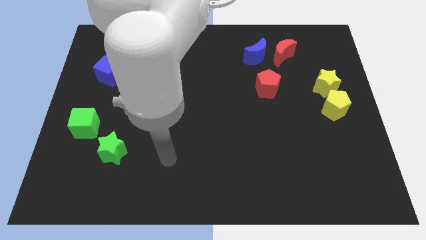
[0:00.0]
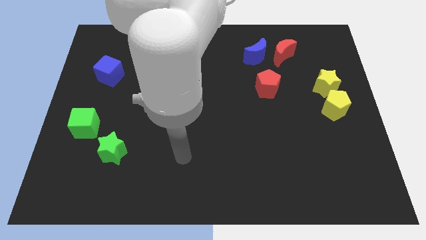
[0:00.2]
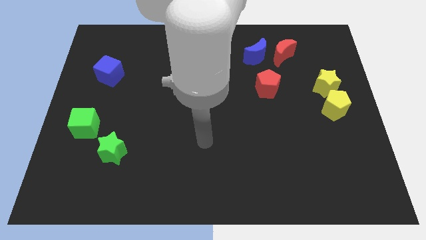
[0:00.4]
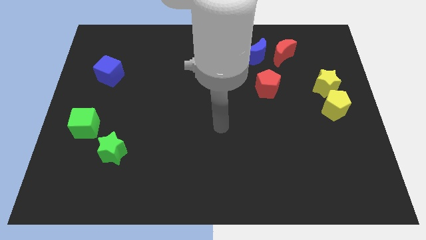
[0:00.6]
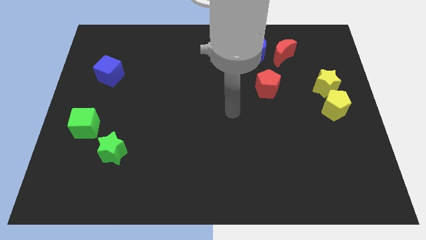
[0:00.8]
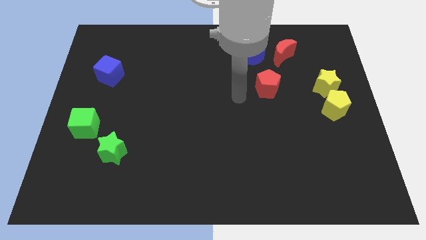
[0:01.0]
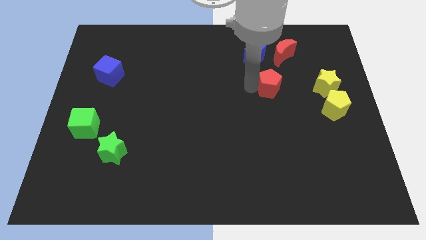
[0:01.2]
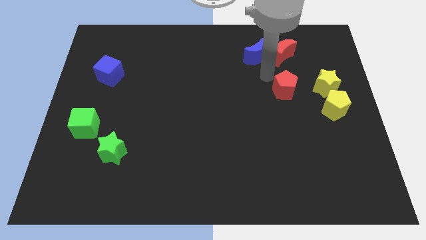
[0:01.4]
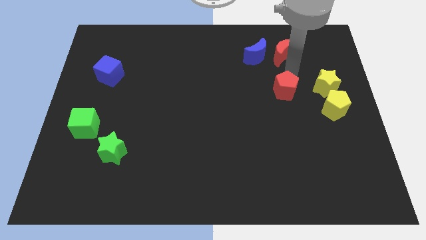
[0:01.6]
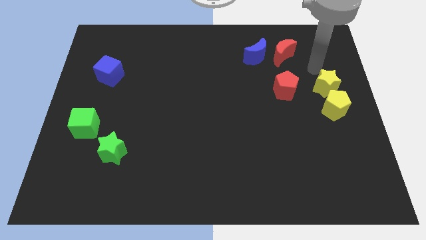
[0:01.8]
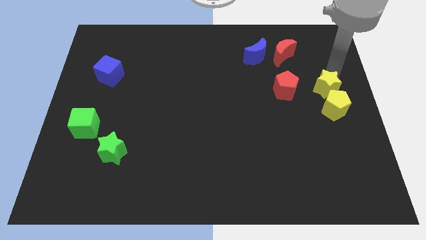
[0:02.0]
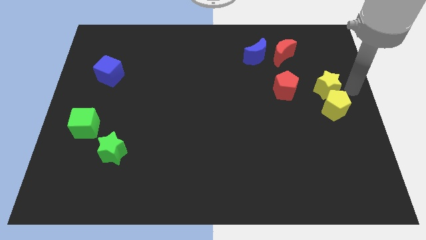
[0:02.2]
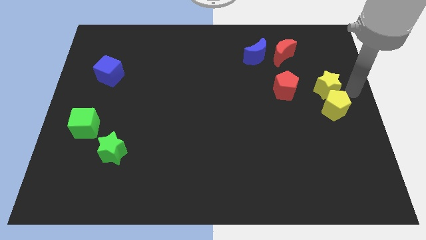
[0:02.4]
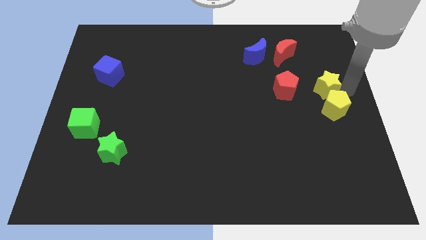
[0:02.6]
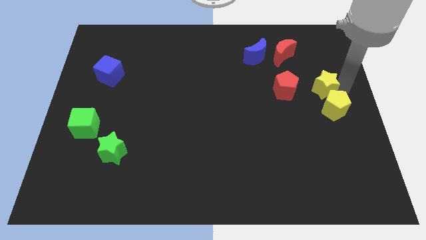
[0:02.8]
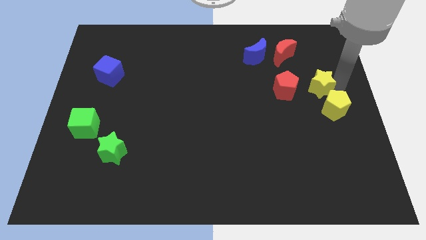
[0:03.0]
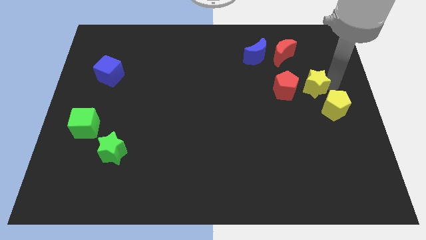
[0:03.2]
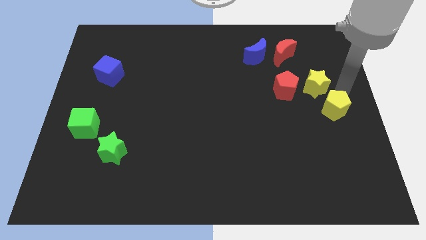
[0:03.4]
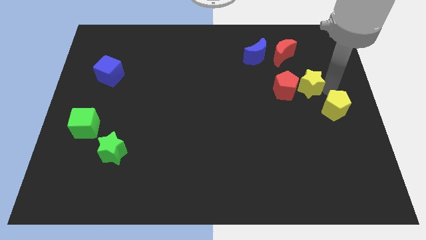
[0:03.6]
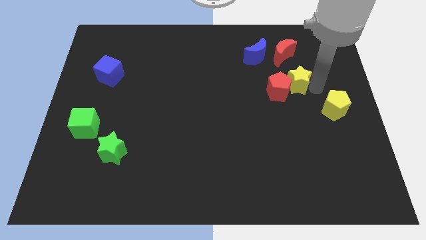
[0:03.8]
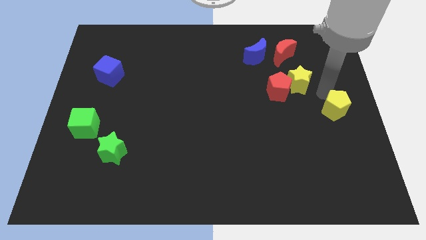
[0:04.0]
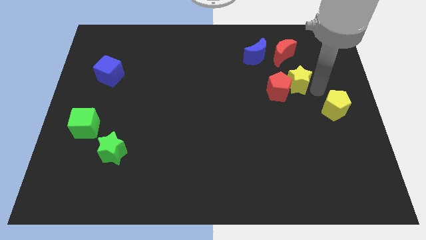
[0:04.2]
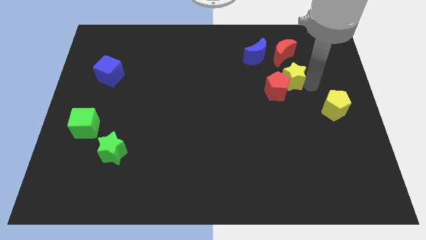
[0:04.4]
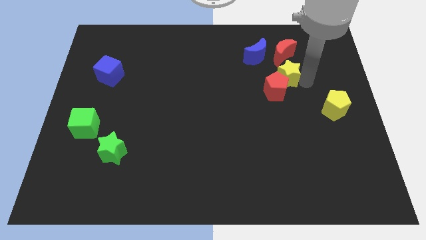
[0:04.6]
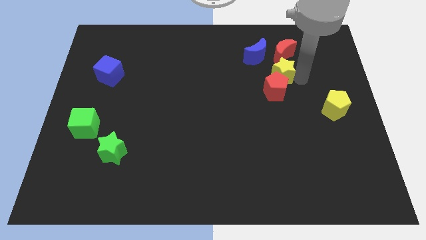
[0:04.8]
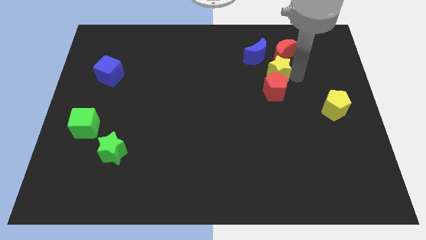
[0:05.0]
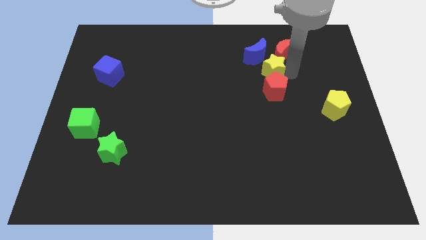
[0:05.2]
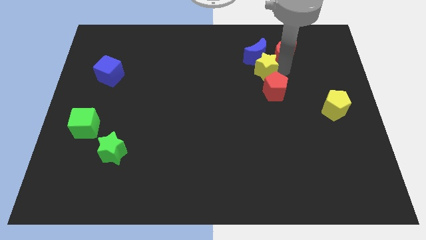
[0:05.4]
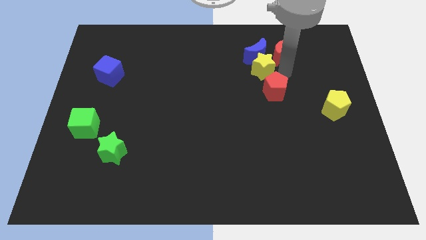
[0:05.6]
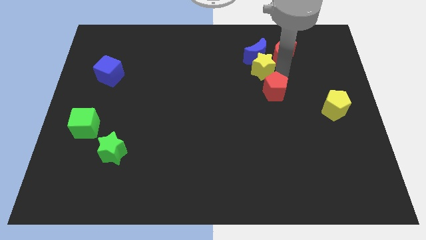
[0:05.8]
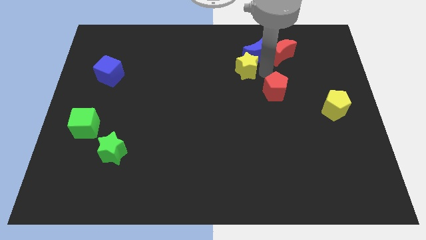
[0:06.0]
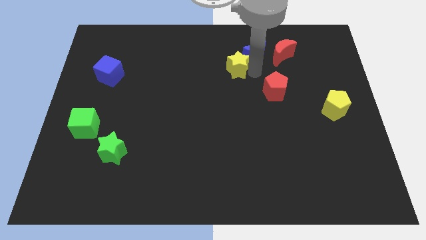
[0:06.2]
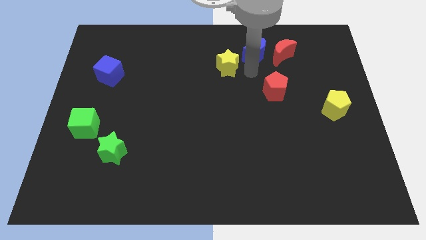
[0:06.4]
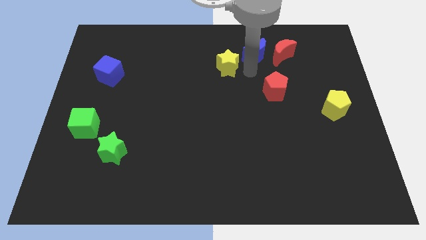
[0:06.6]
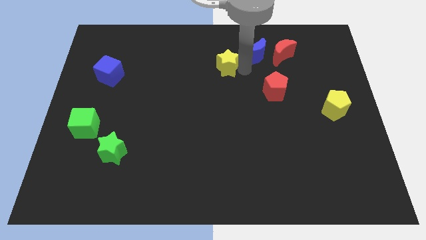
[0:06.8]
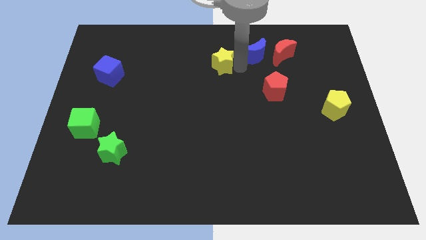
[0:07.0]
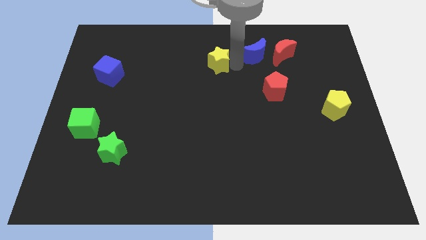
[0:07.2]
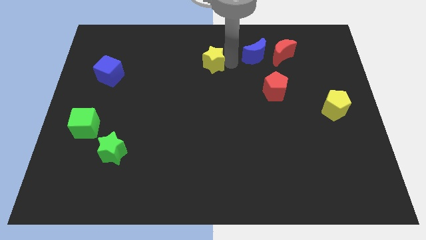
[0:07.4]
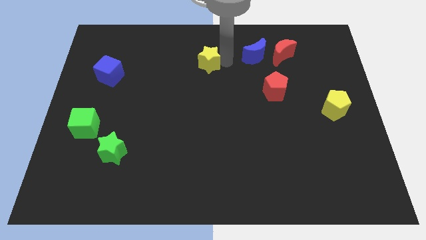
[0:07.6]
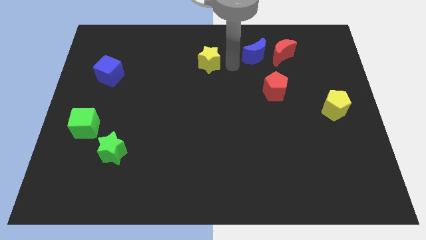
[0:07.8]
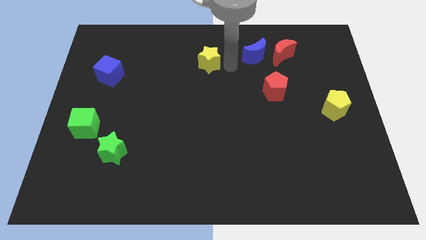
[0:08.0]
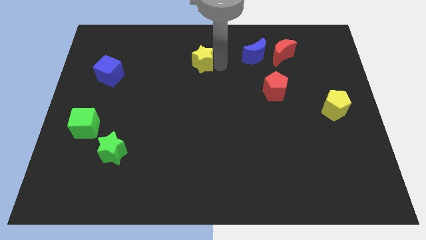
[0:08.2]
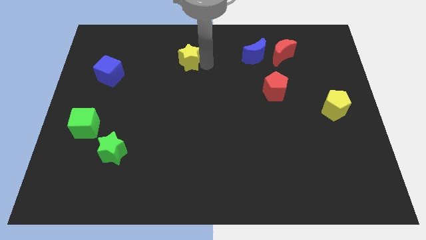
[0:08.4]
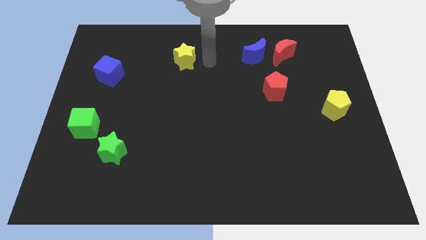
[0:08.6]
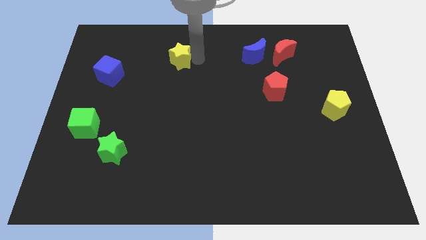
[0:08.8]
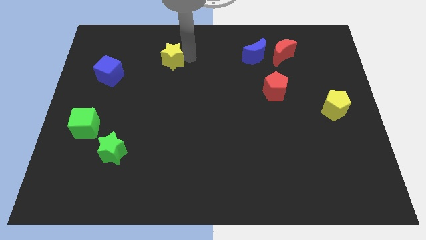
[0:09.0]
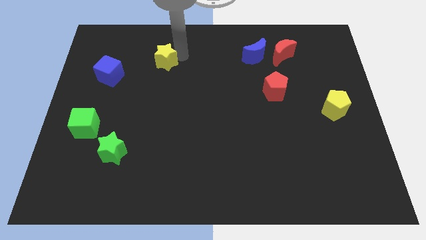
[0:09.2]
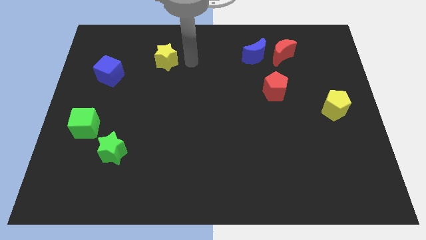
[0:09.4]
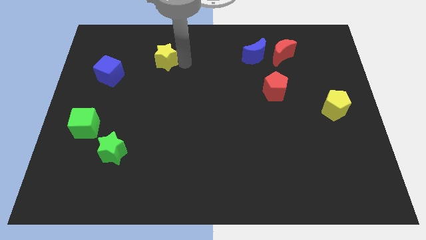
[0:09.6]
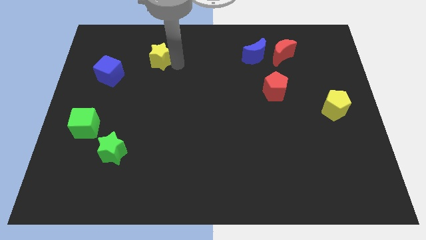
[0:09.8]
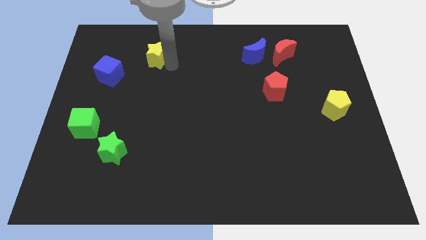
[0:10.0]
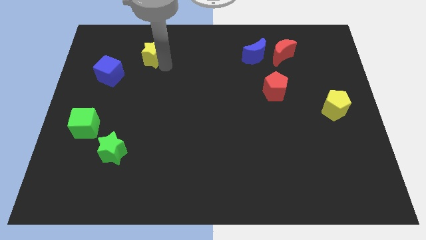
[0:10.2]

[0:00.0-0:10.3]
slide the yellow star diagonally up and to the right of the blue cube

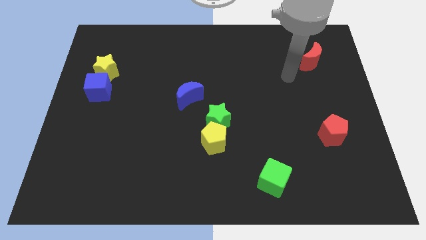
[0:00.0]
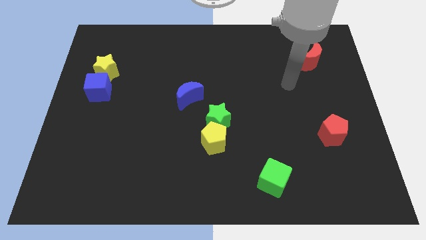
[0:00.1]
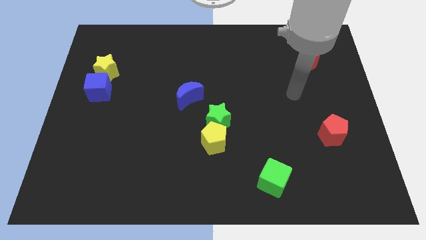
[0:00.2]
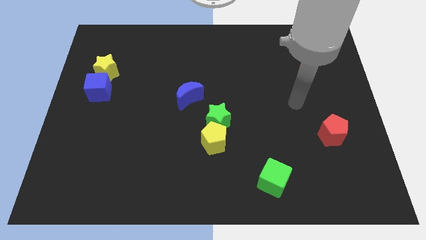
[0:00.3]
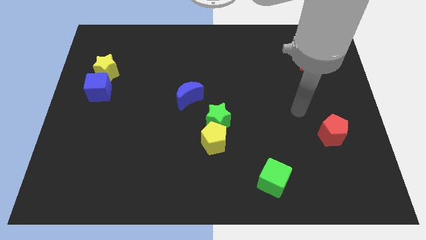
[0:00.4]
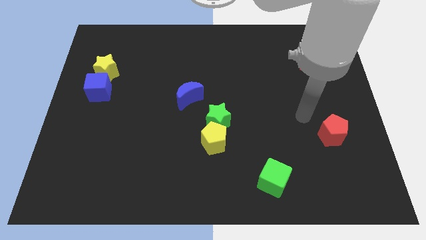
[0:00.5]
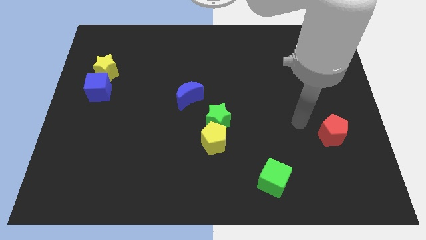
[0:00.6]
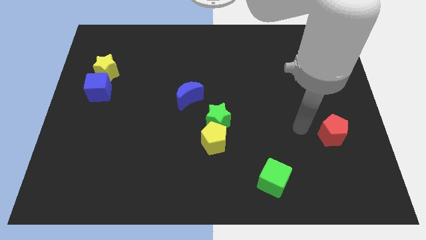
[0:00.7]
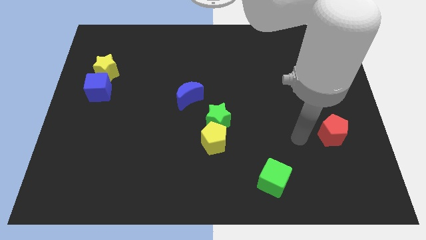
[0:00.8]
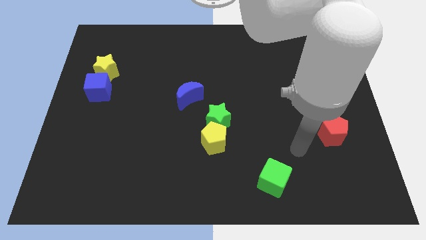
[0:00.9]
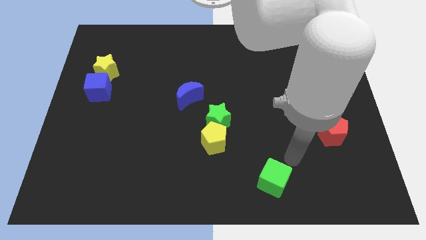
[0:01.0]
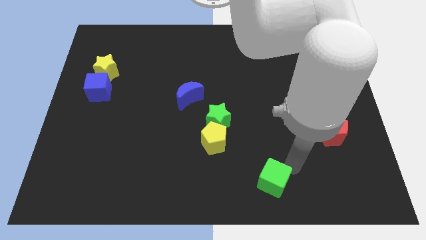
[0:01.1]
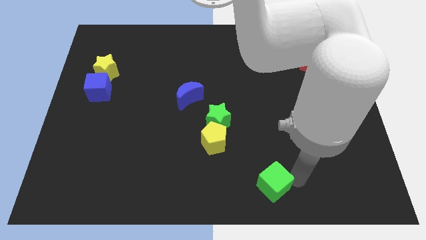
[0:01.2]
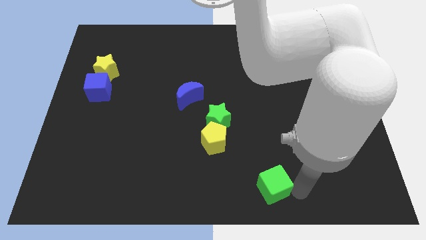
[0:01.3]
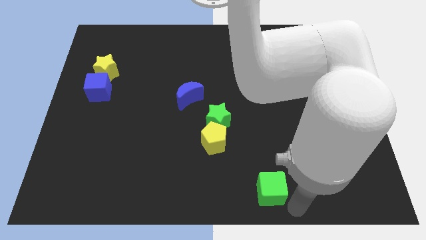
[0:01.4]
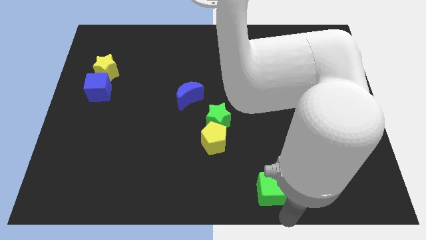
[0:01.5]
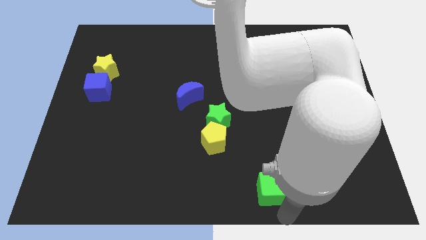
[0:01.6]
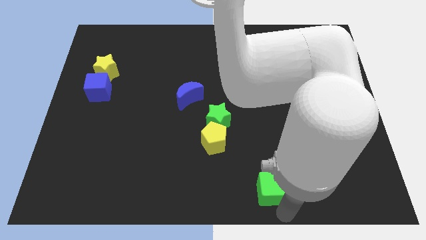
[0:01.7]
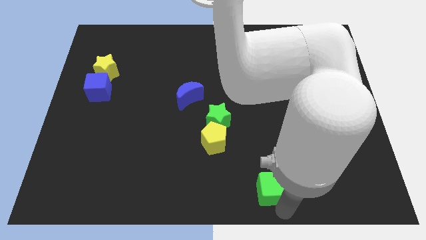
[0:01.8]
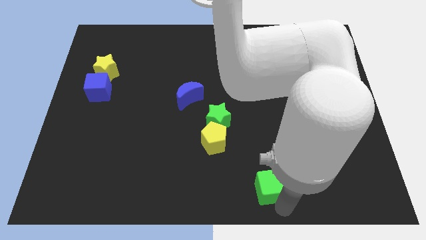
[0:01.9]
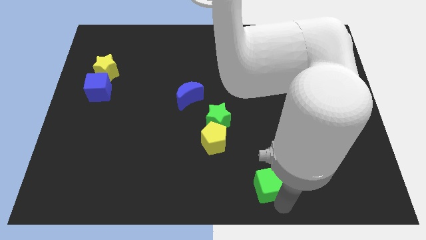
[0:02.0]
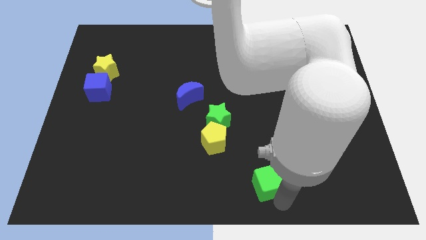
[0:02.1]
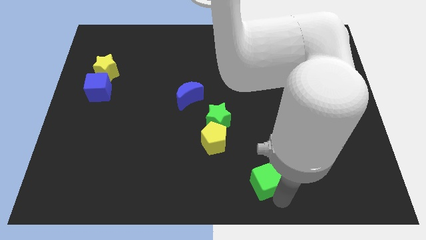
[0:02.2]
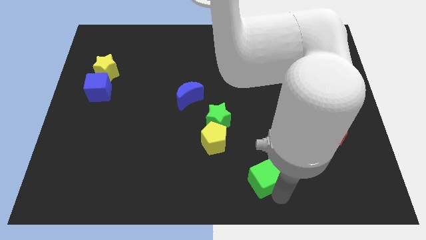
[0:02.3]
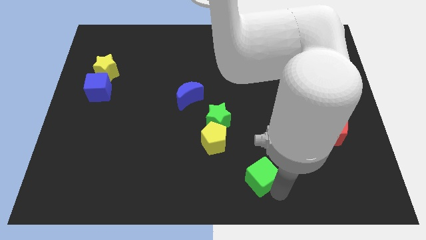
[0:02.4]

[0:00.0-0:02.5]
move the green cube to the bottom right side of the yellow pentagon
